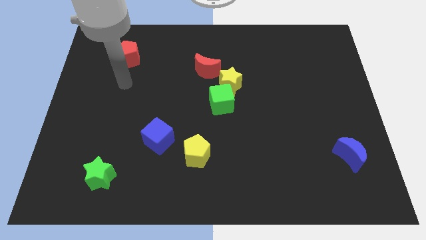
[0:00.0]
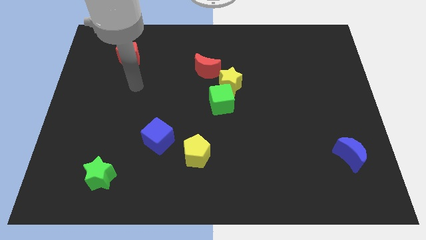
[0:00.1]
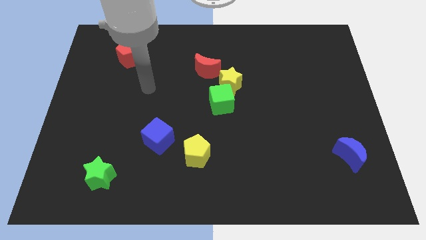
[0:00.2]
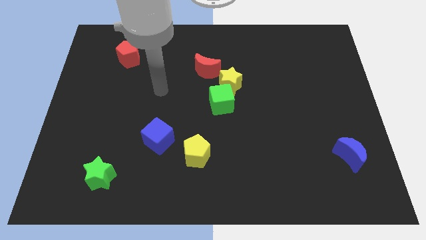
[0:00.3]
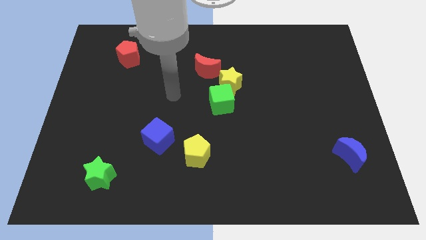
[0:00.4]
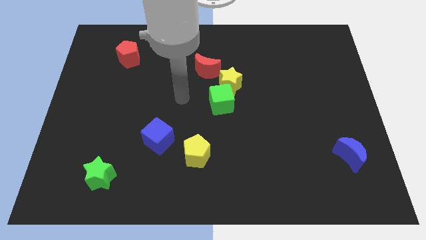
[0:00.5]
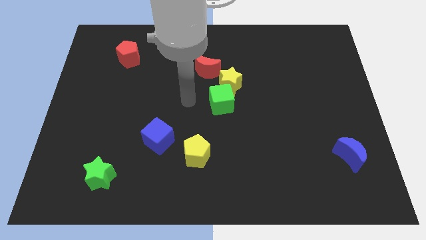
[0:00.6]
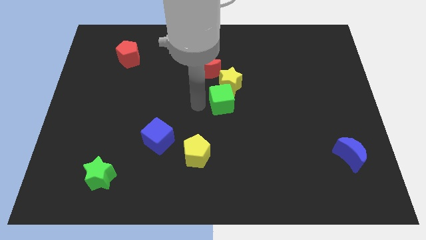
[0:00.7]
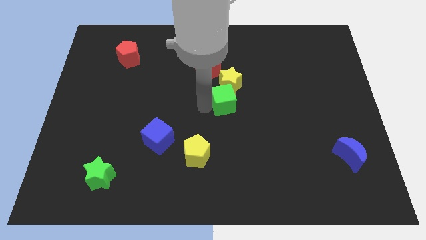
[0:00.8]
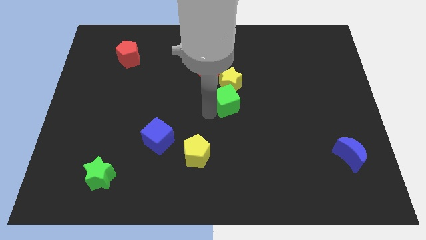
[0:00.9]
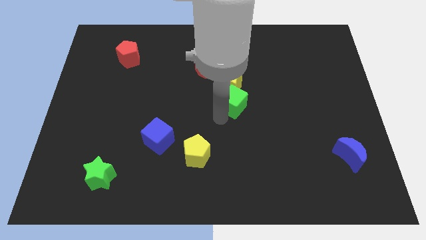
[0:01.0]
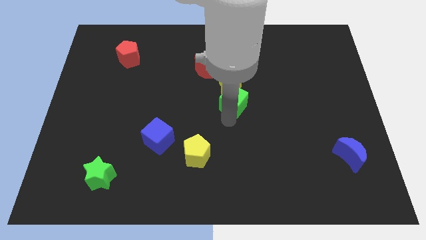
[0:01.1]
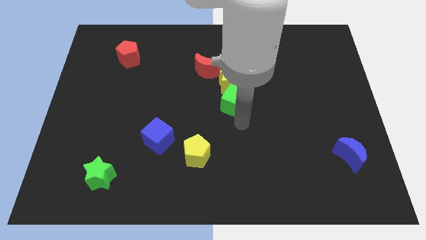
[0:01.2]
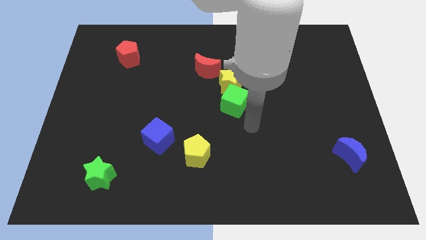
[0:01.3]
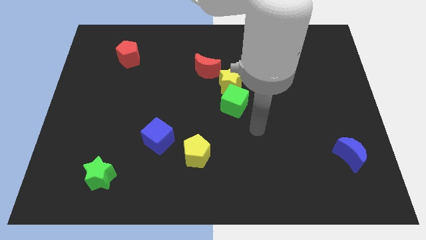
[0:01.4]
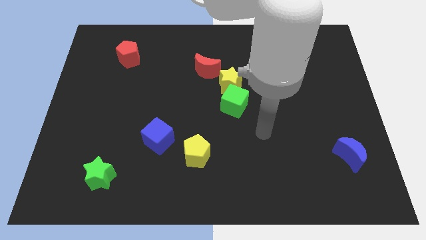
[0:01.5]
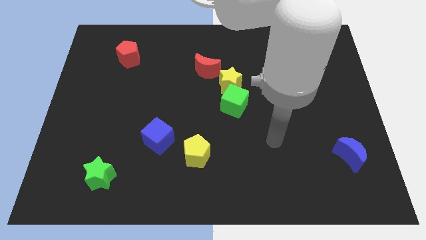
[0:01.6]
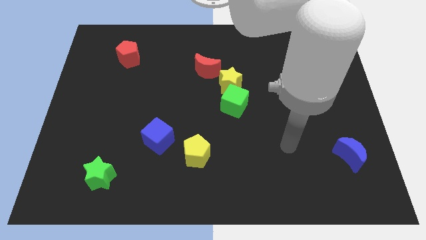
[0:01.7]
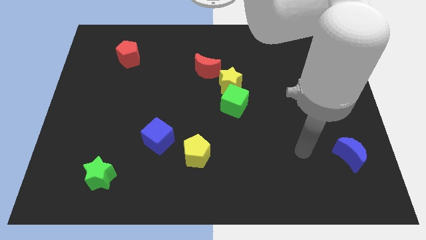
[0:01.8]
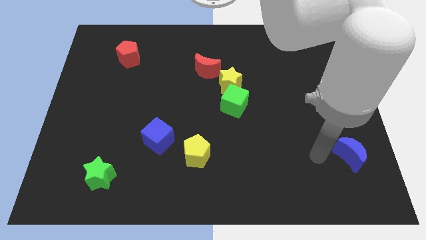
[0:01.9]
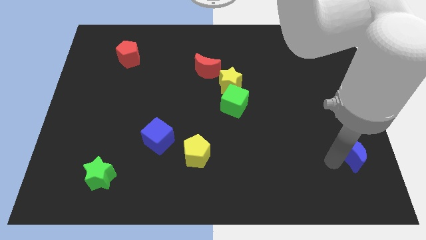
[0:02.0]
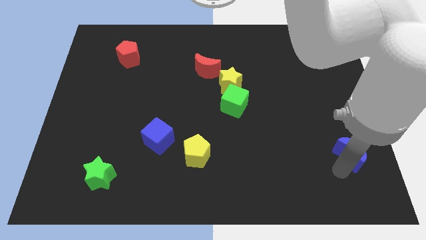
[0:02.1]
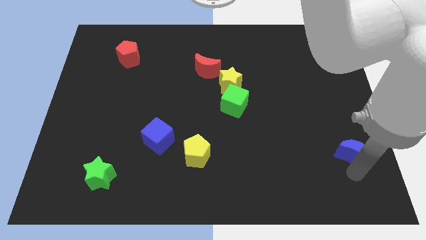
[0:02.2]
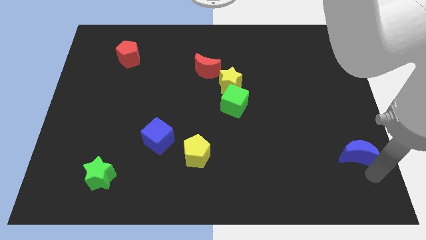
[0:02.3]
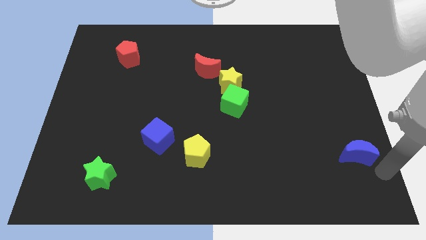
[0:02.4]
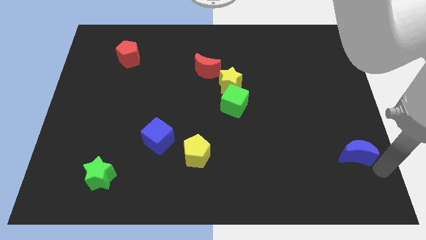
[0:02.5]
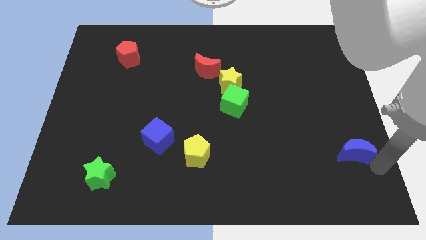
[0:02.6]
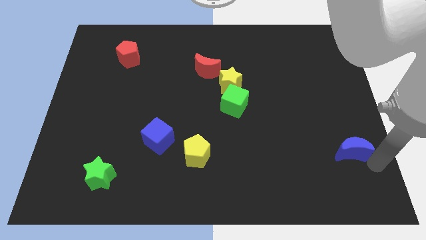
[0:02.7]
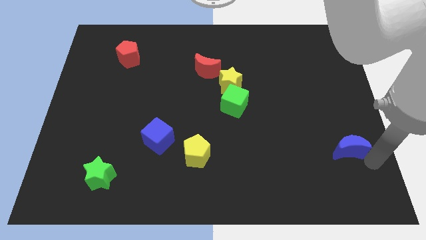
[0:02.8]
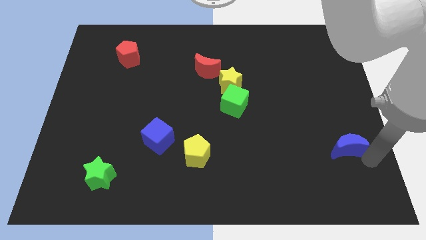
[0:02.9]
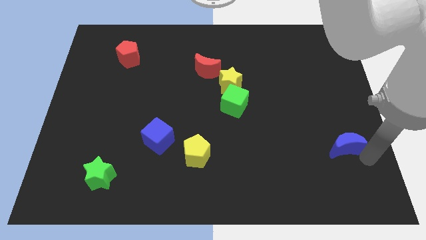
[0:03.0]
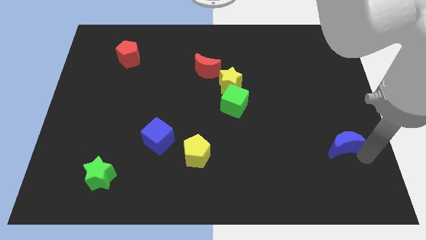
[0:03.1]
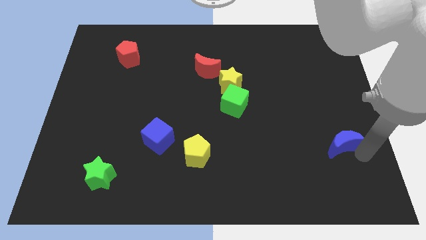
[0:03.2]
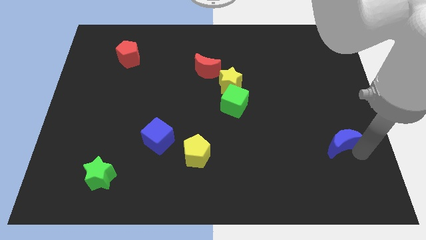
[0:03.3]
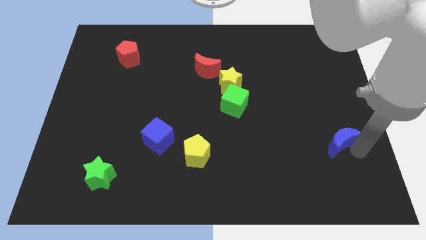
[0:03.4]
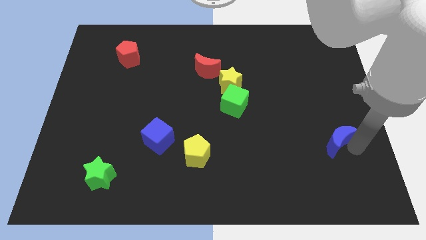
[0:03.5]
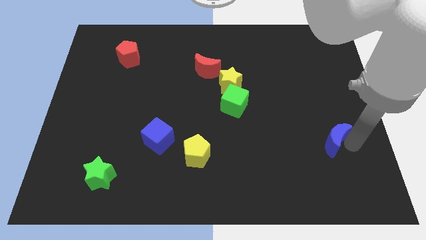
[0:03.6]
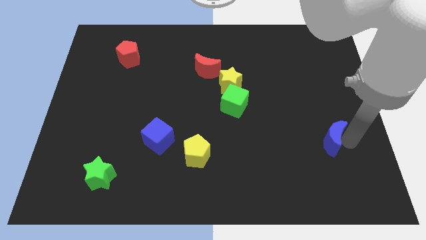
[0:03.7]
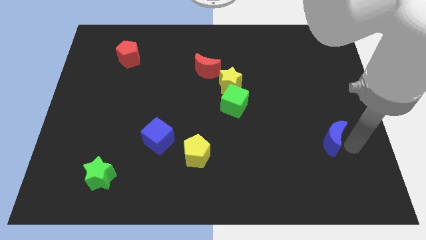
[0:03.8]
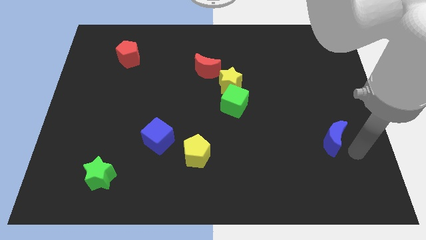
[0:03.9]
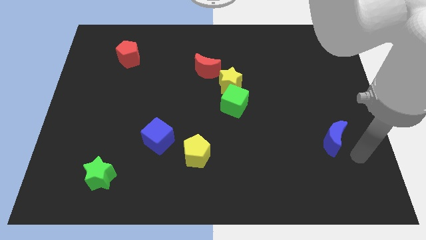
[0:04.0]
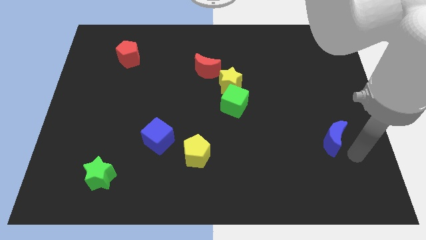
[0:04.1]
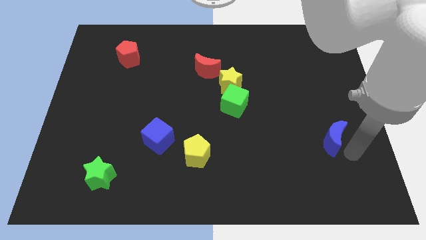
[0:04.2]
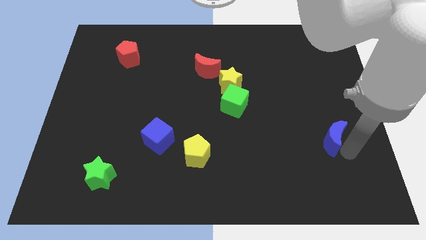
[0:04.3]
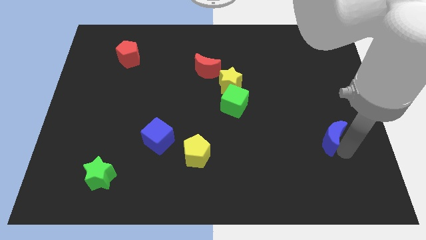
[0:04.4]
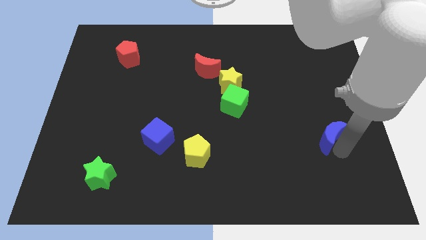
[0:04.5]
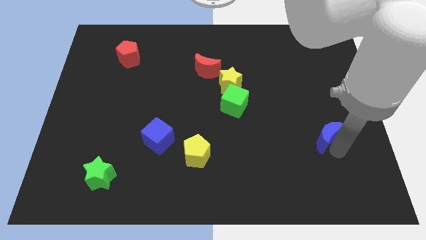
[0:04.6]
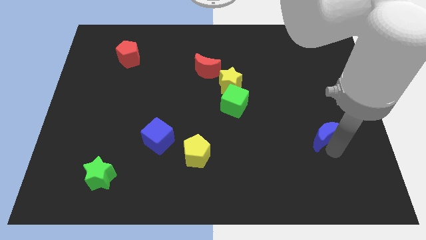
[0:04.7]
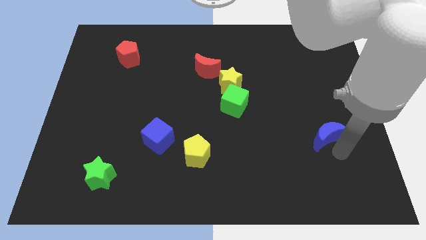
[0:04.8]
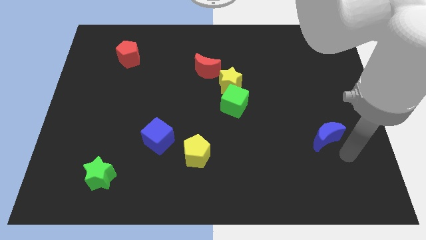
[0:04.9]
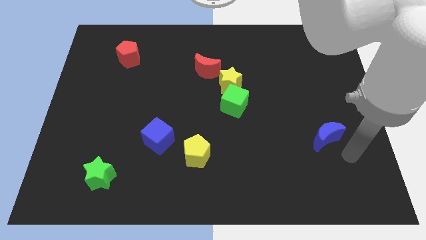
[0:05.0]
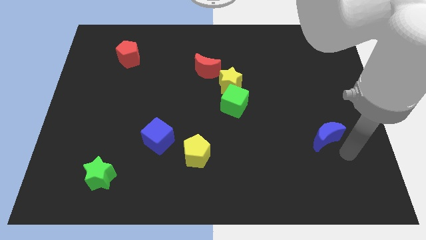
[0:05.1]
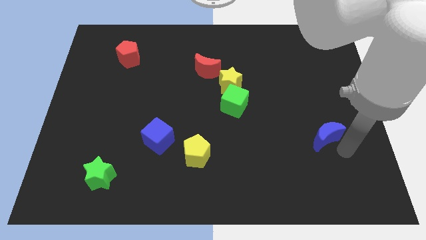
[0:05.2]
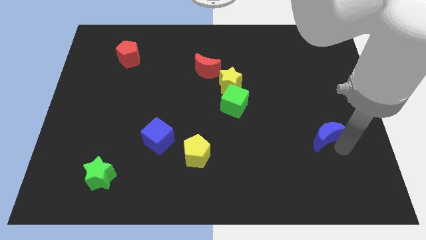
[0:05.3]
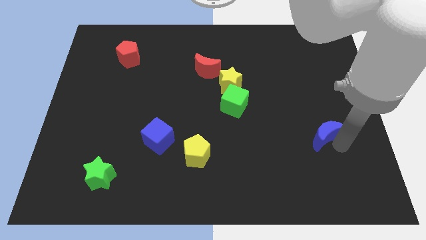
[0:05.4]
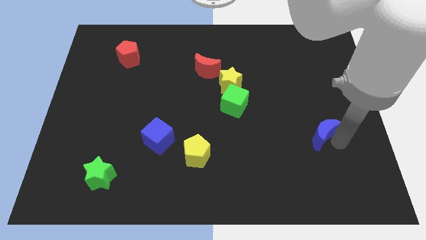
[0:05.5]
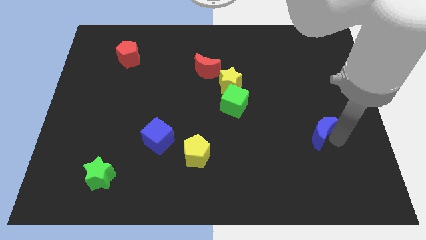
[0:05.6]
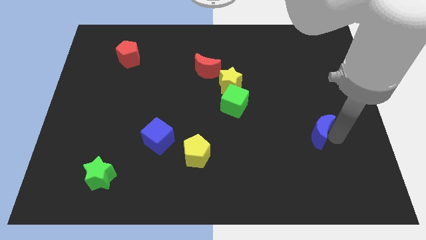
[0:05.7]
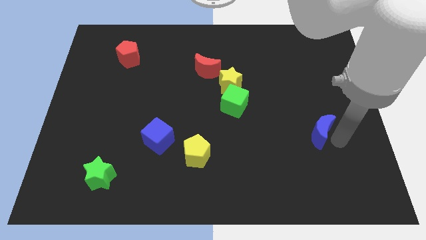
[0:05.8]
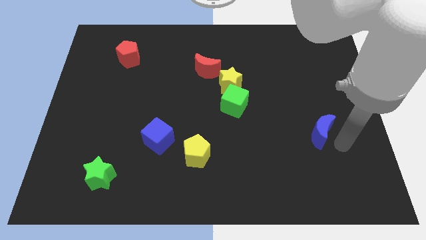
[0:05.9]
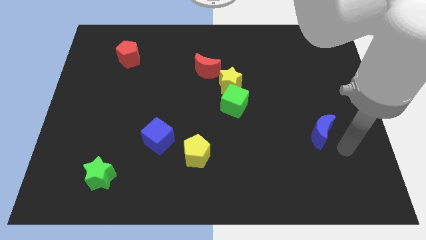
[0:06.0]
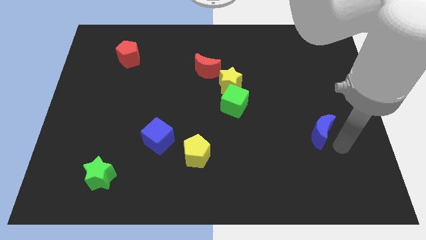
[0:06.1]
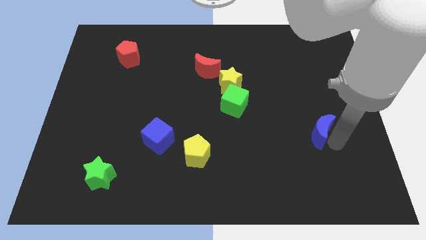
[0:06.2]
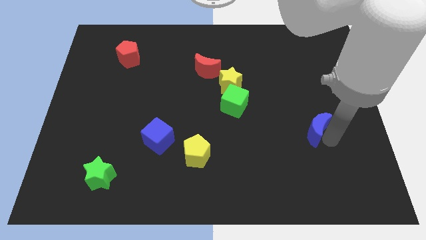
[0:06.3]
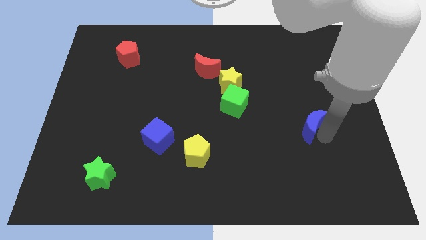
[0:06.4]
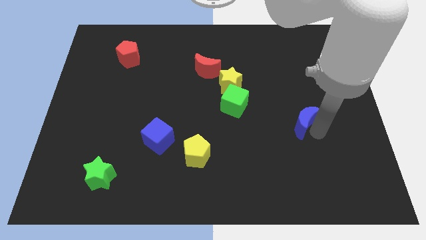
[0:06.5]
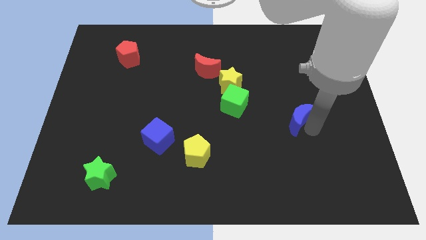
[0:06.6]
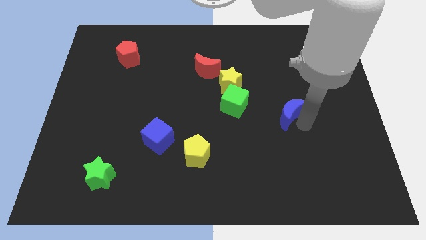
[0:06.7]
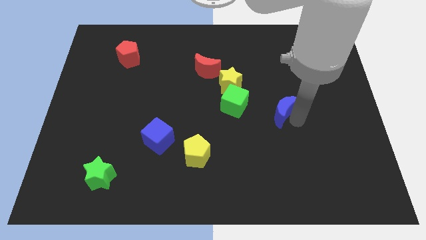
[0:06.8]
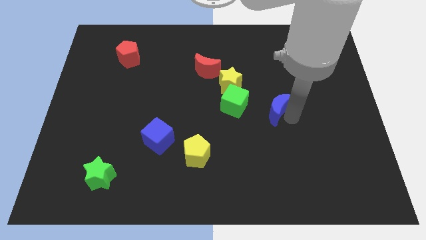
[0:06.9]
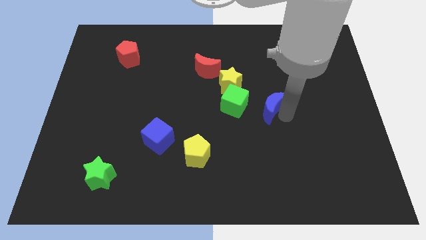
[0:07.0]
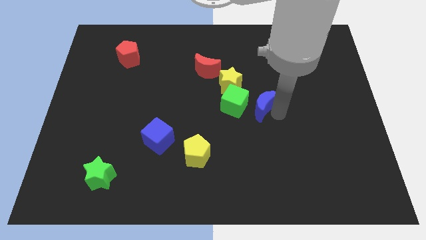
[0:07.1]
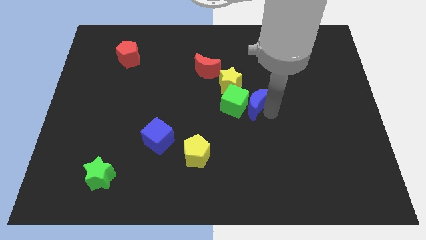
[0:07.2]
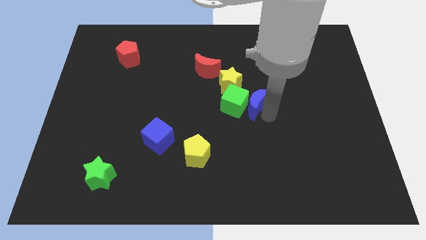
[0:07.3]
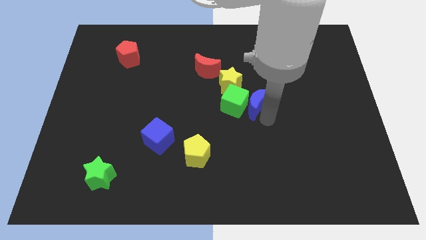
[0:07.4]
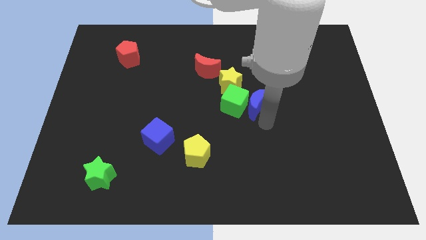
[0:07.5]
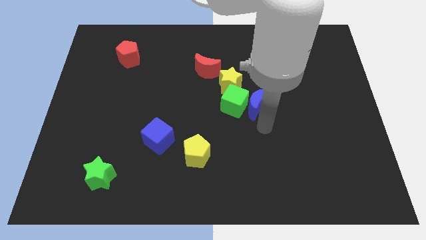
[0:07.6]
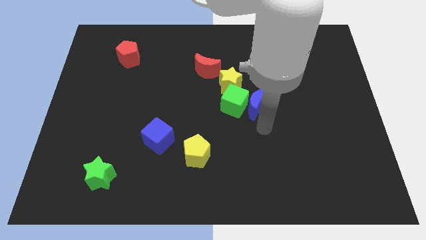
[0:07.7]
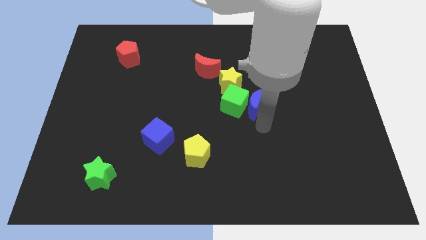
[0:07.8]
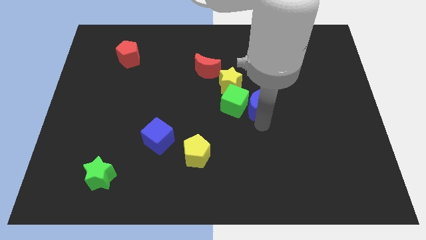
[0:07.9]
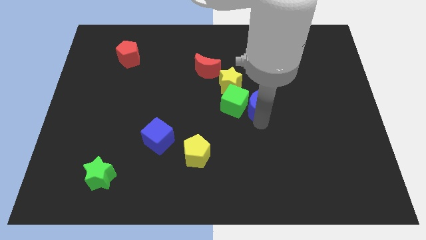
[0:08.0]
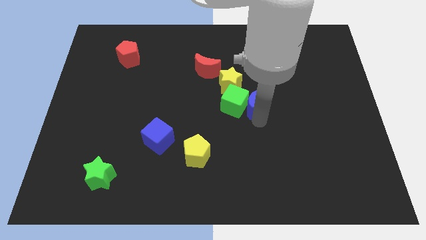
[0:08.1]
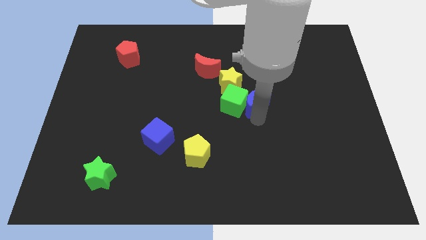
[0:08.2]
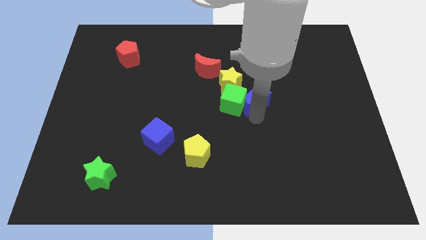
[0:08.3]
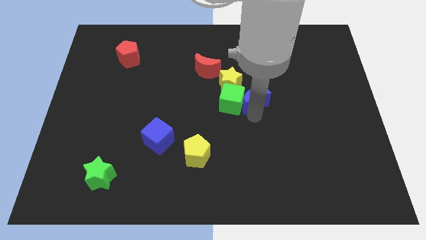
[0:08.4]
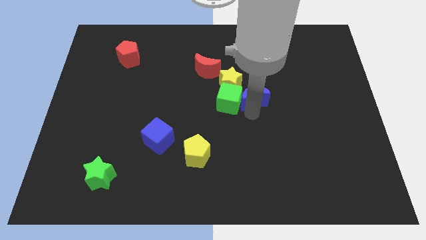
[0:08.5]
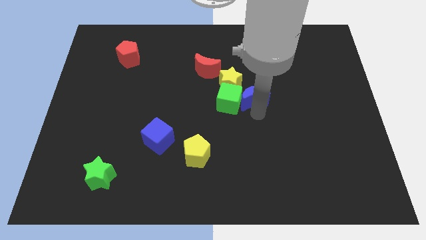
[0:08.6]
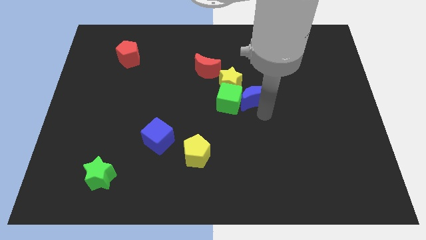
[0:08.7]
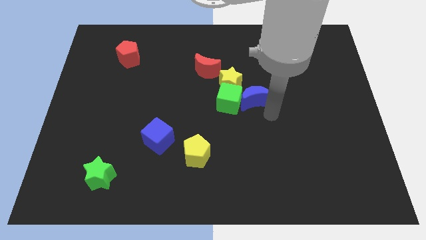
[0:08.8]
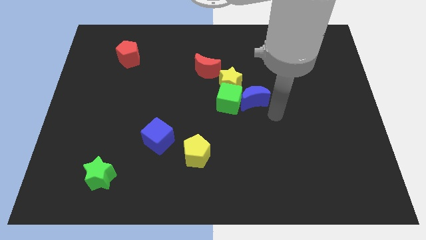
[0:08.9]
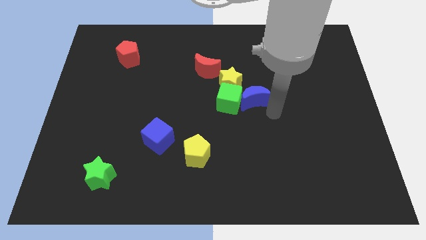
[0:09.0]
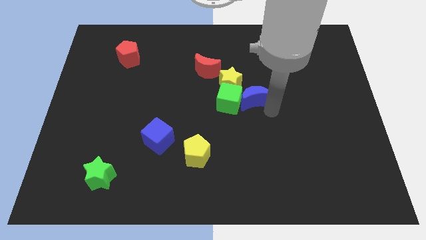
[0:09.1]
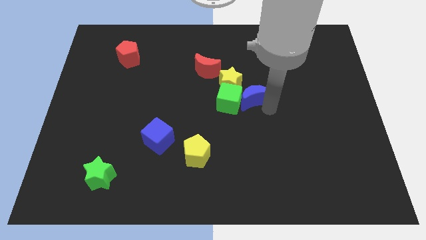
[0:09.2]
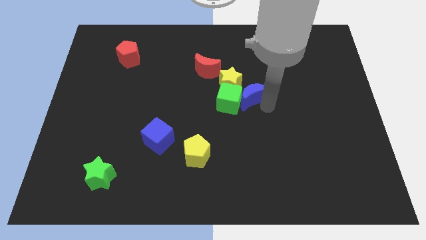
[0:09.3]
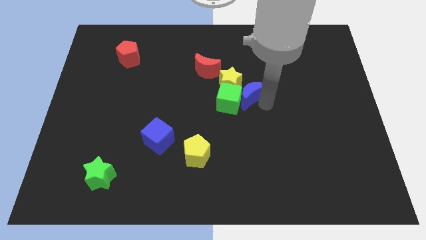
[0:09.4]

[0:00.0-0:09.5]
push the blue moon towards the yellow star
